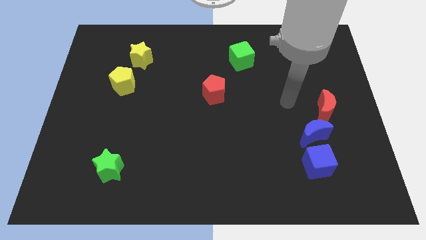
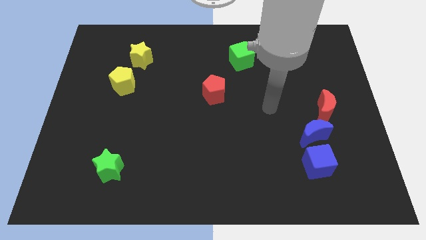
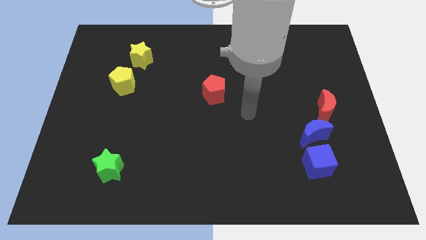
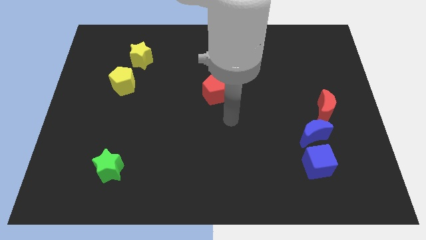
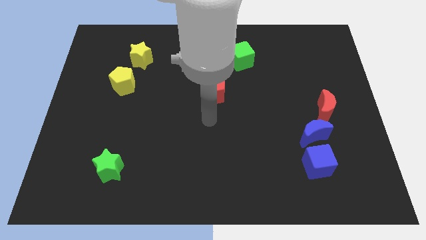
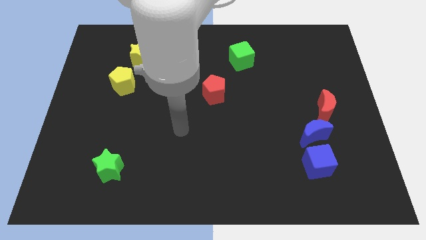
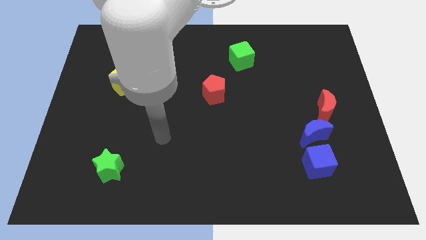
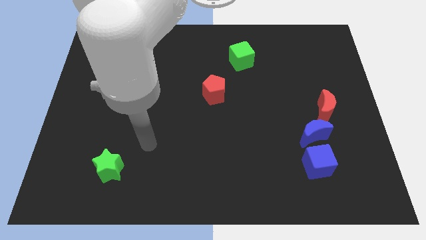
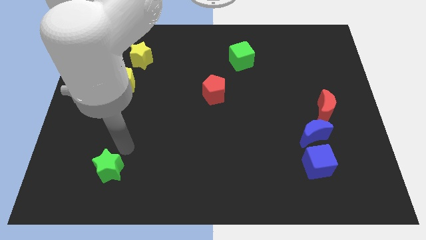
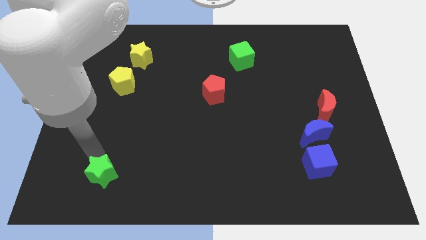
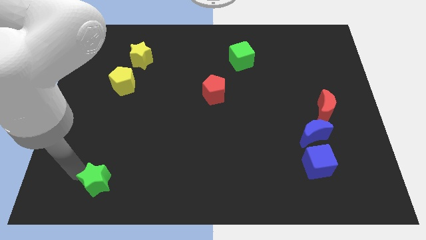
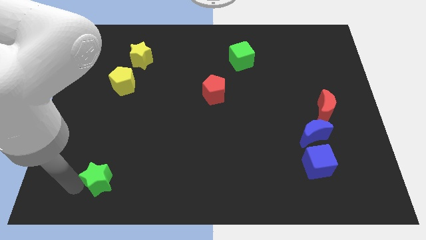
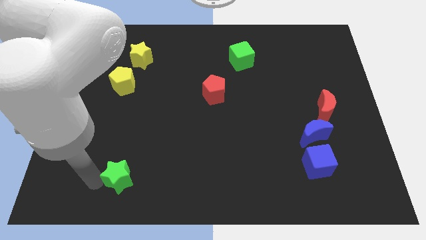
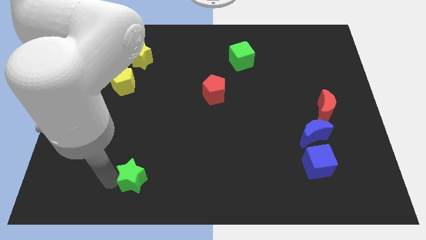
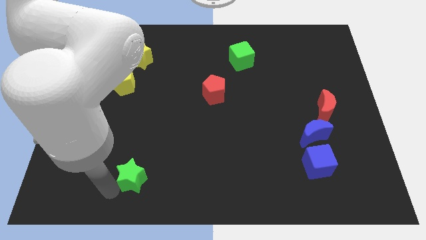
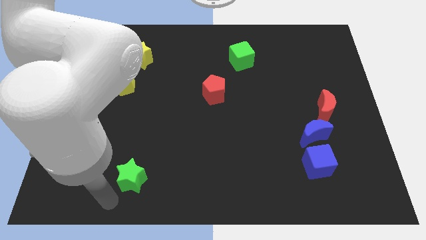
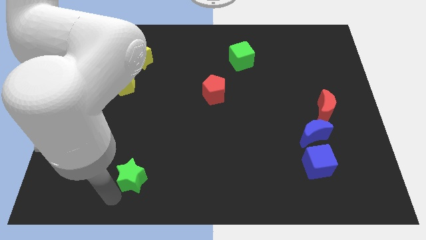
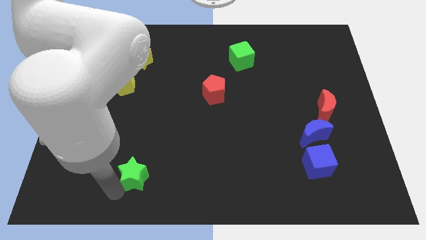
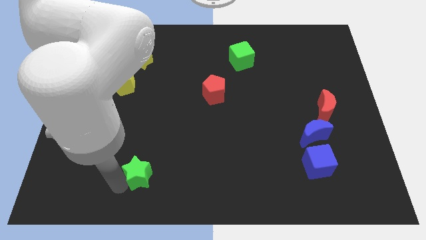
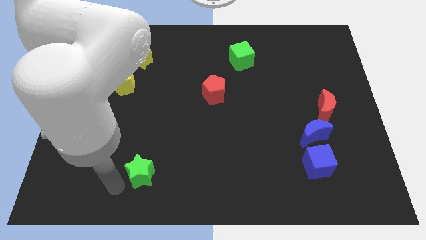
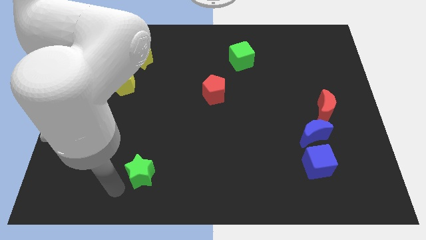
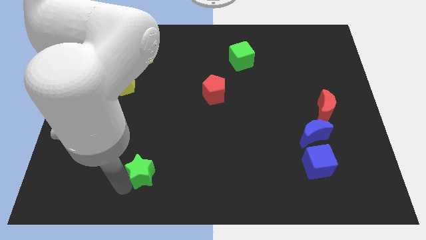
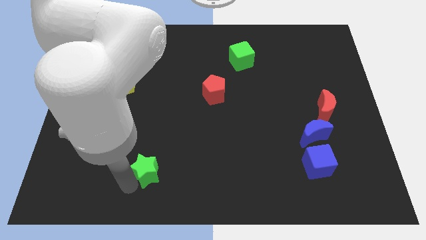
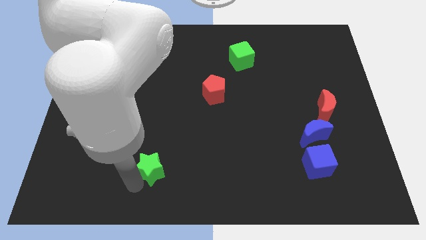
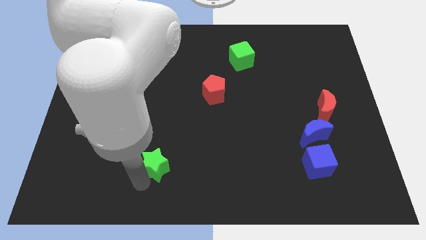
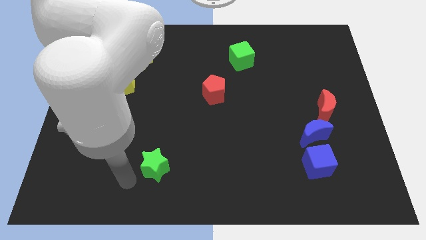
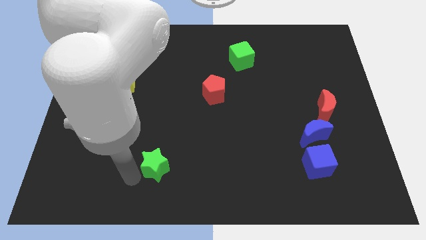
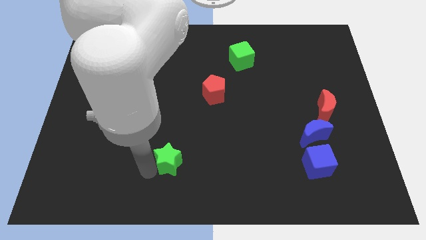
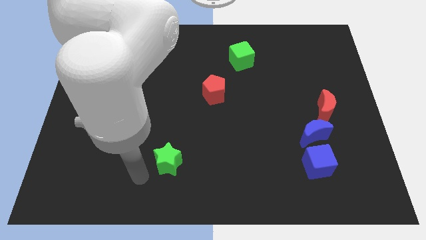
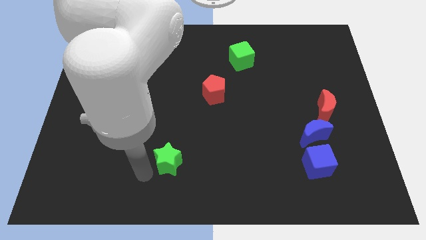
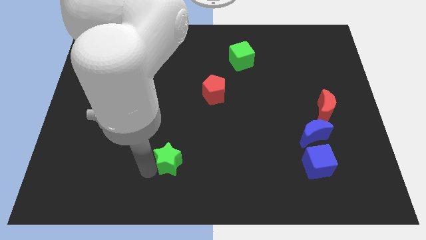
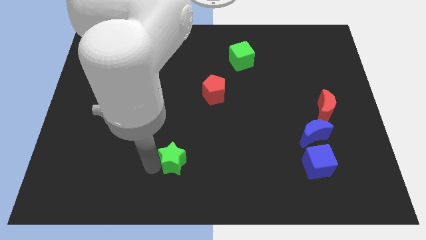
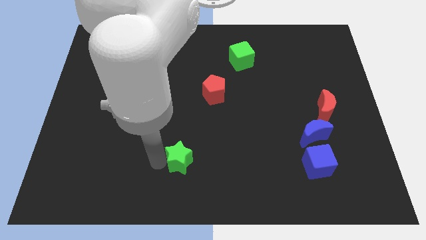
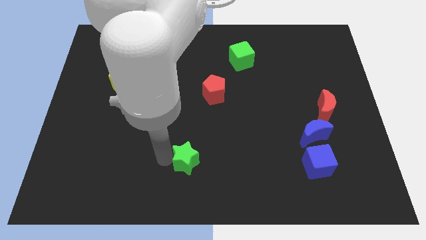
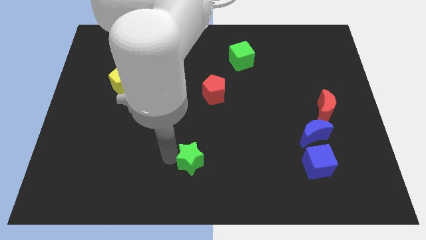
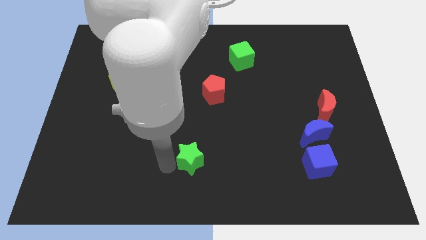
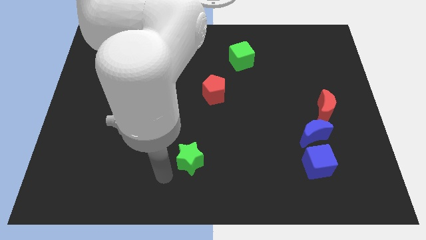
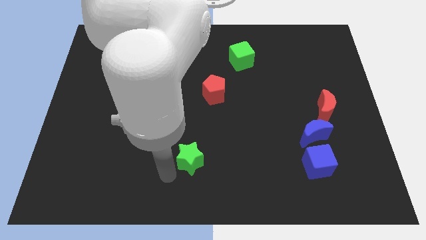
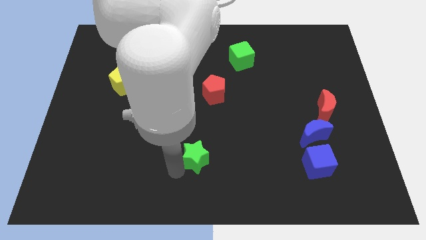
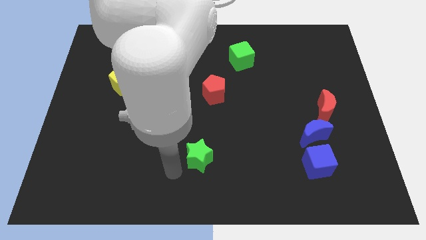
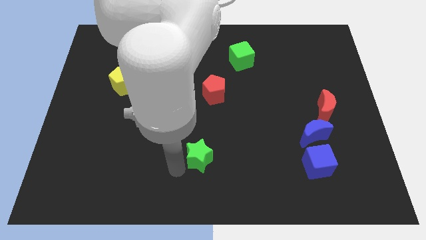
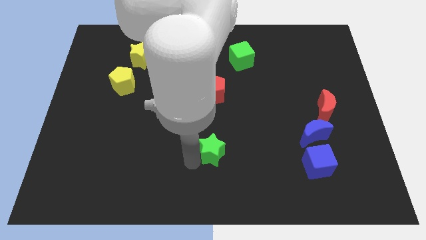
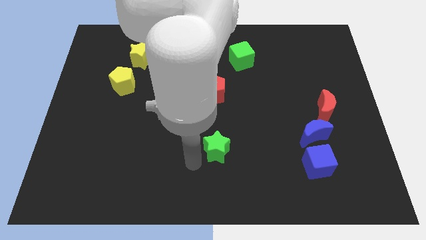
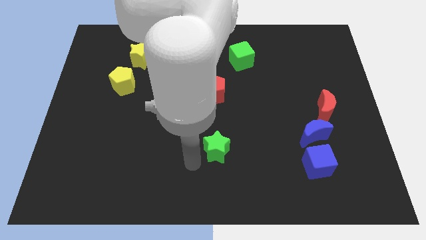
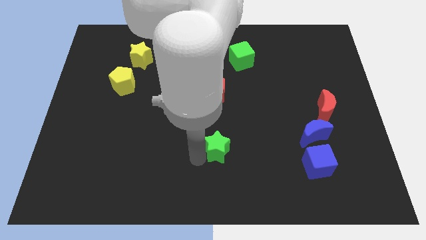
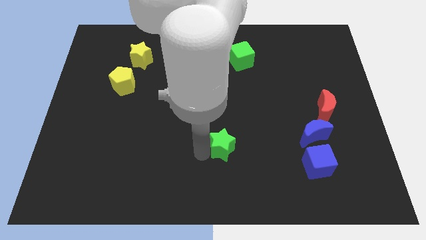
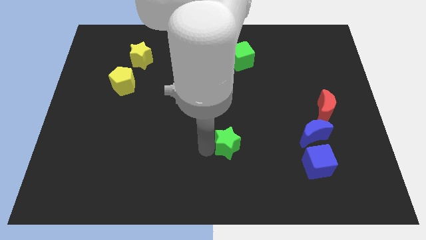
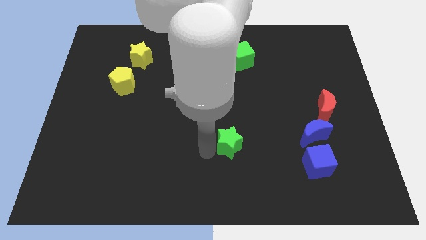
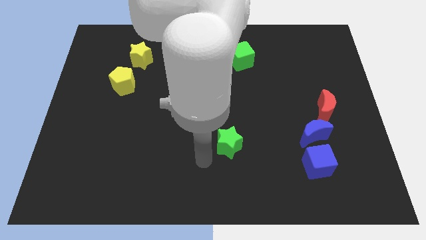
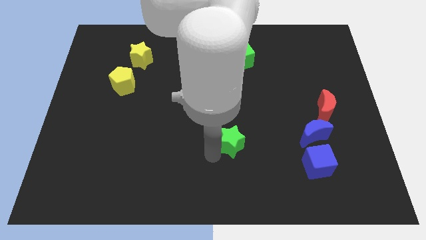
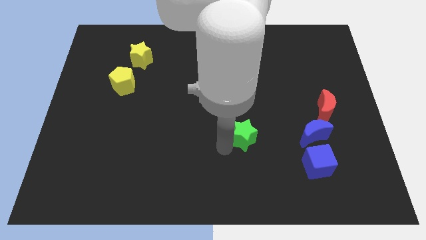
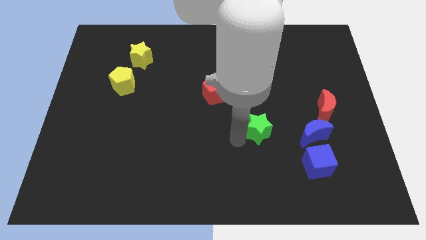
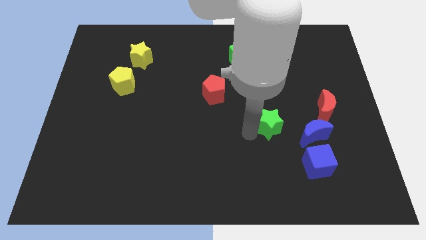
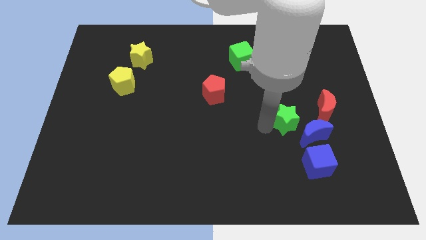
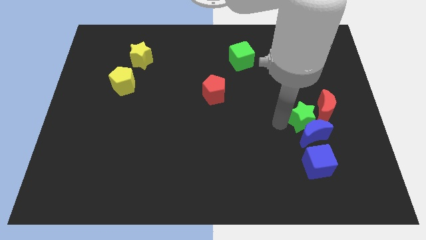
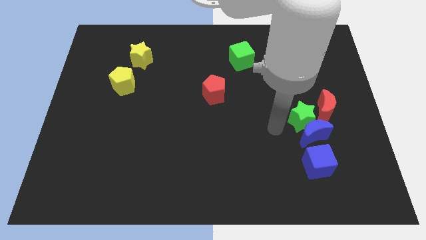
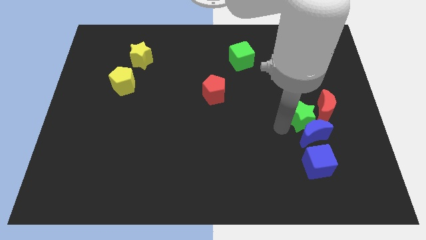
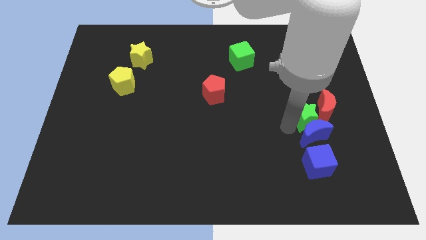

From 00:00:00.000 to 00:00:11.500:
put the green star to the red moon

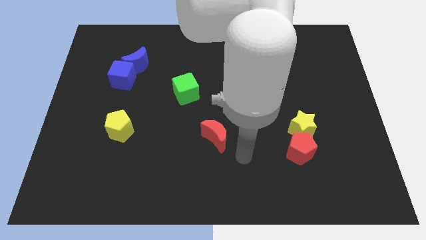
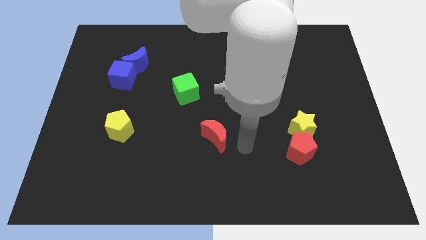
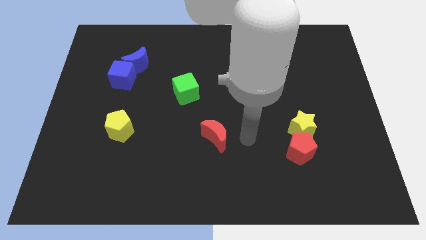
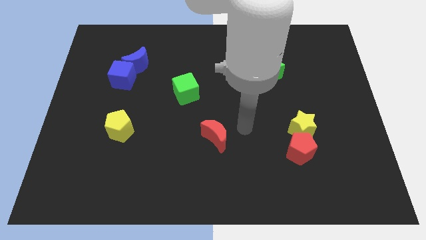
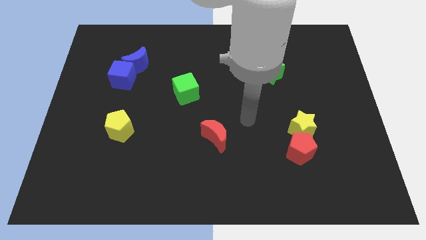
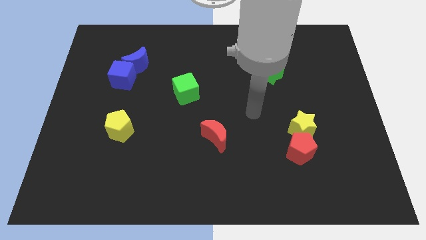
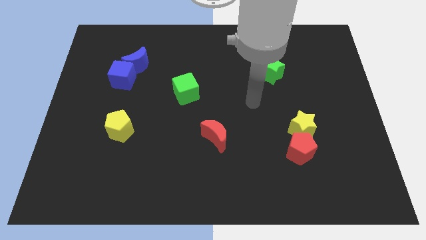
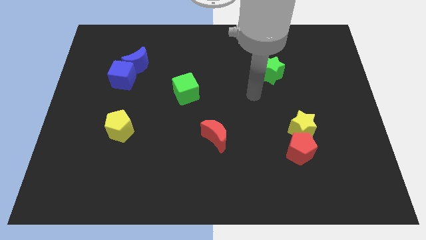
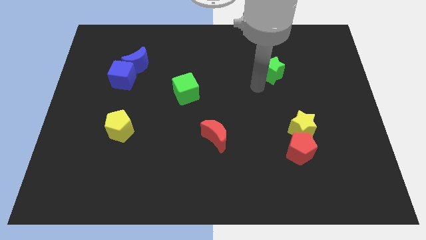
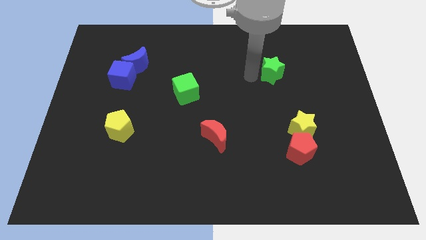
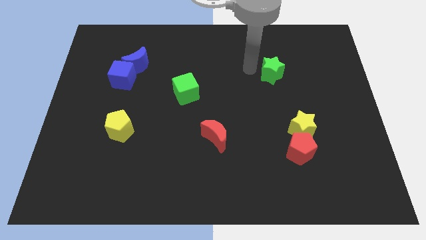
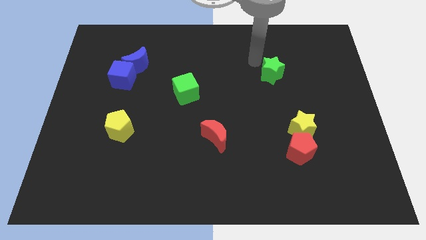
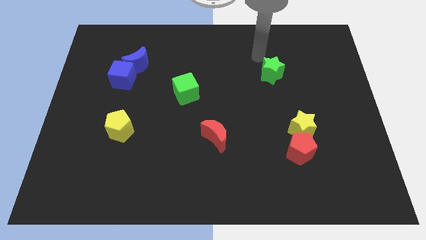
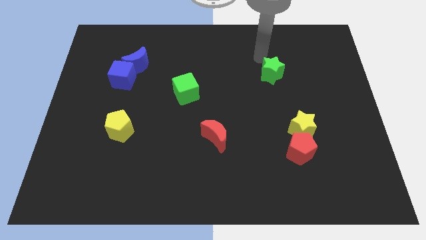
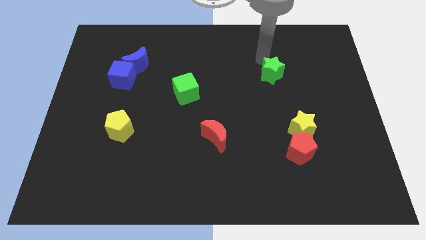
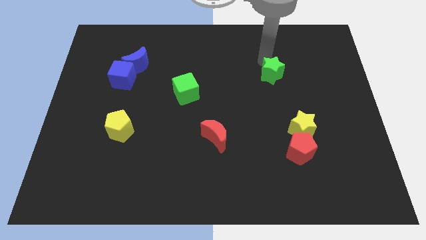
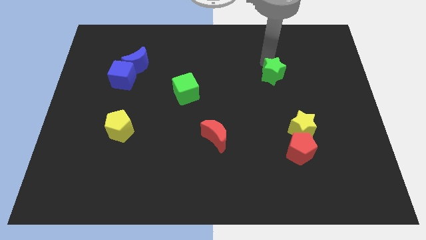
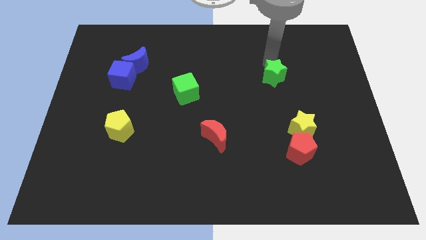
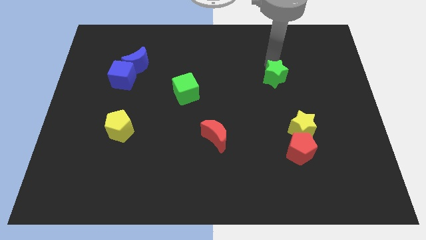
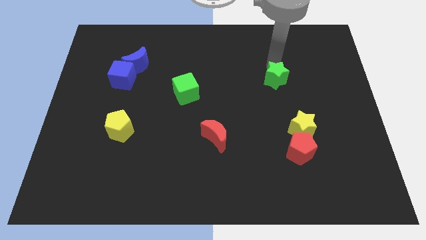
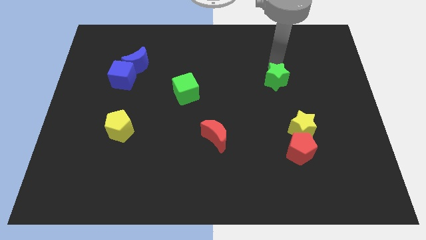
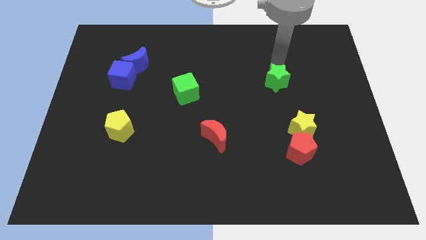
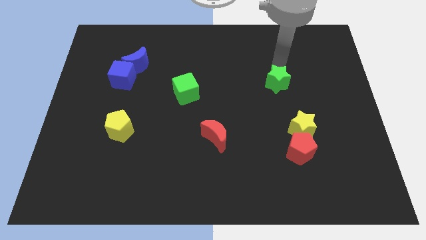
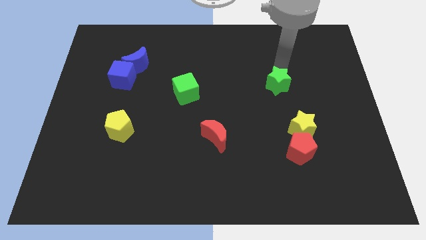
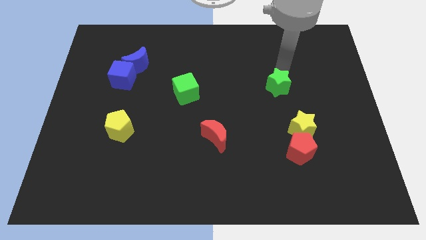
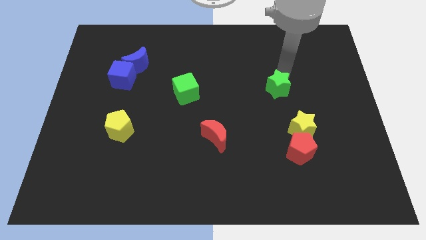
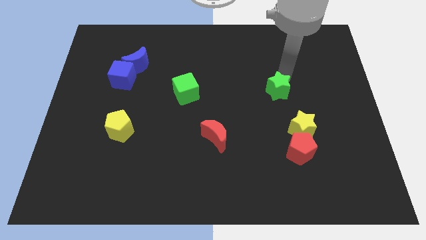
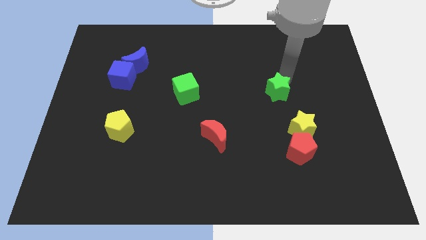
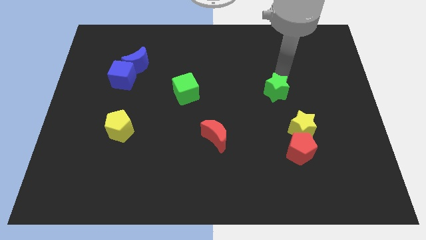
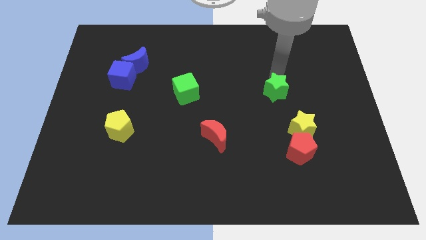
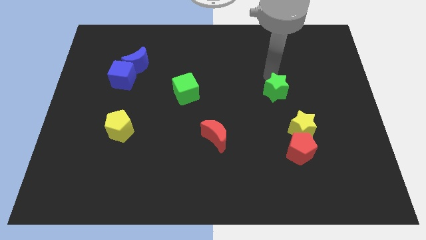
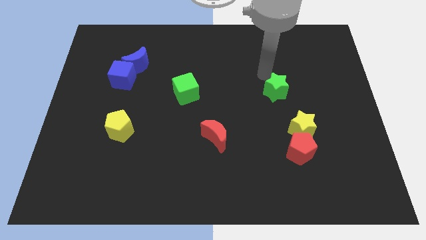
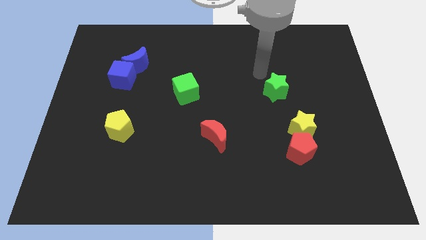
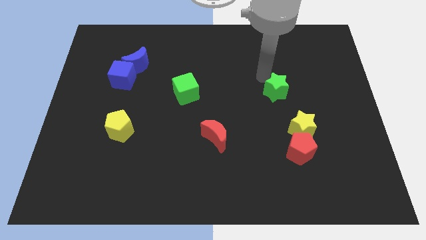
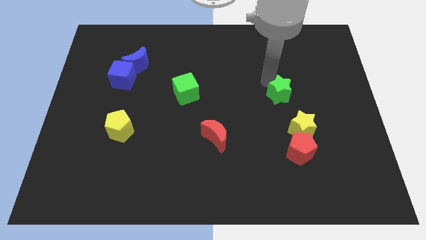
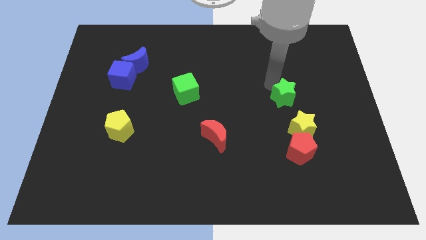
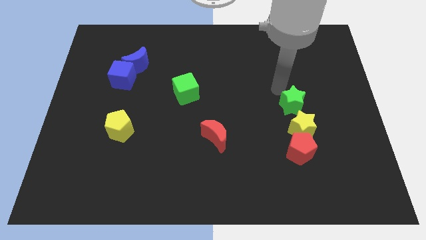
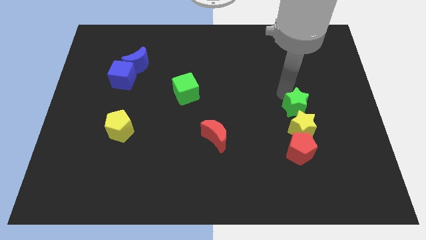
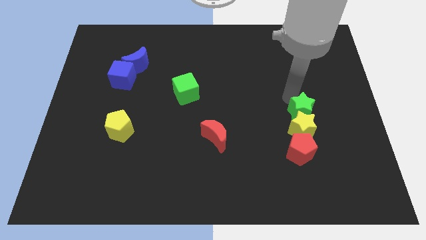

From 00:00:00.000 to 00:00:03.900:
put the green star towards the yellow star
